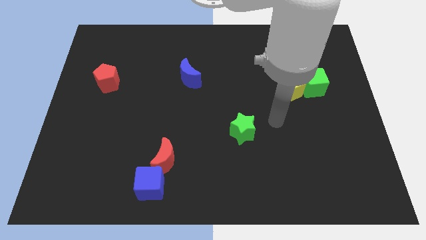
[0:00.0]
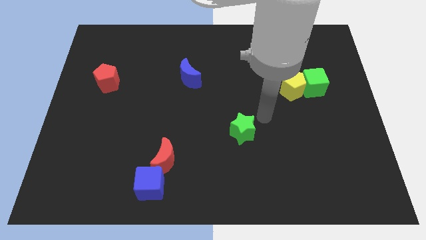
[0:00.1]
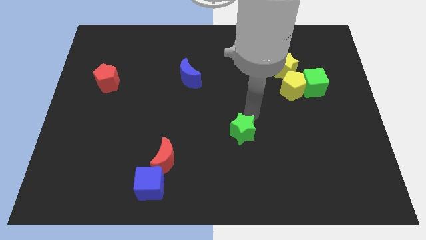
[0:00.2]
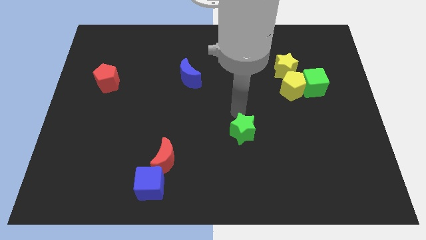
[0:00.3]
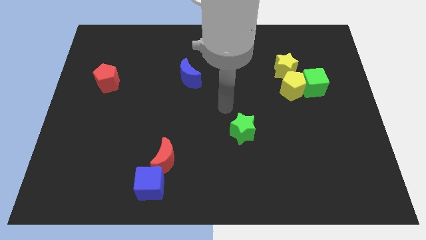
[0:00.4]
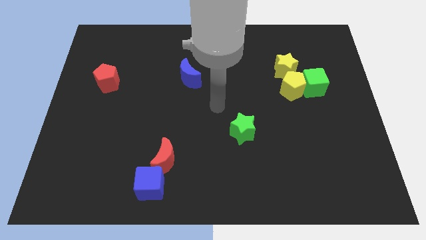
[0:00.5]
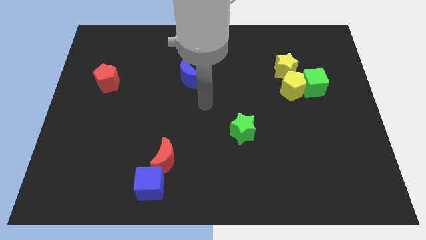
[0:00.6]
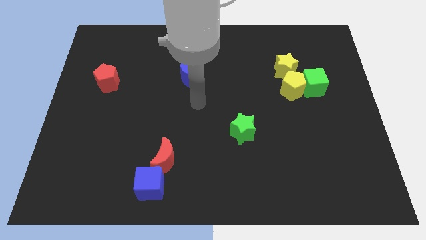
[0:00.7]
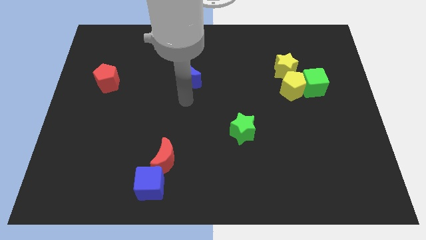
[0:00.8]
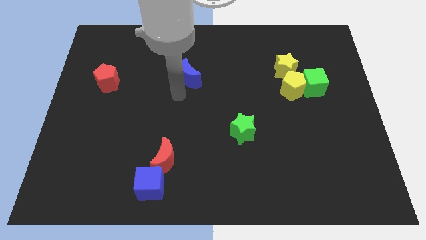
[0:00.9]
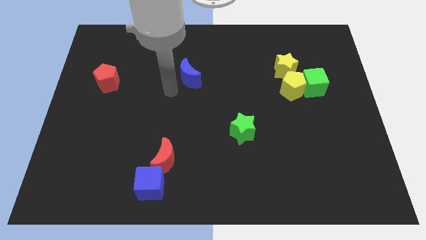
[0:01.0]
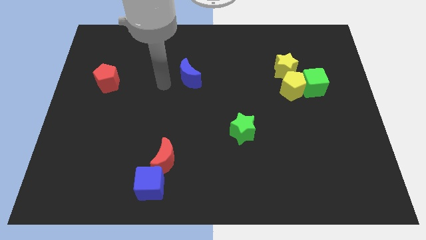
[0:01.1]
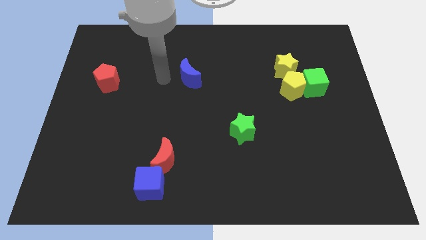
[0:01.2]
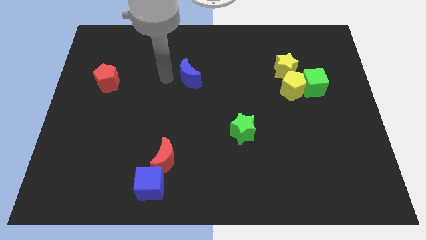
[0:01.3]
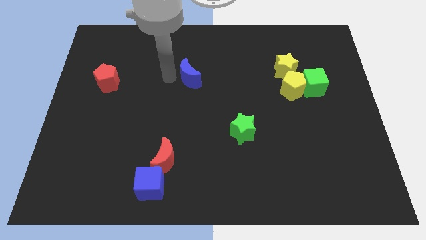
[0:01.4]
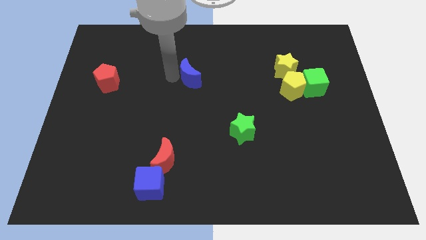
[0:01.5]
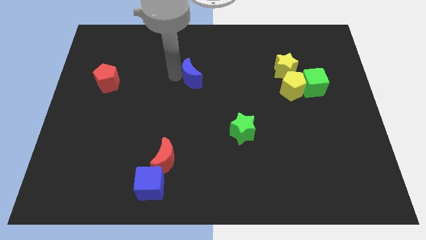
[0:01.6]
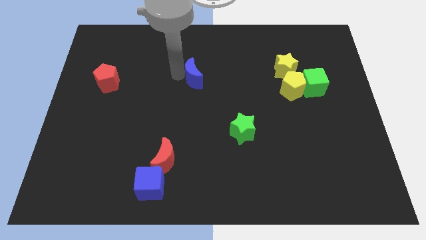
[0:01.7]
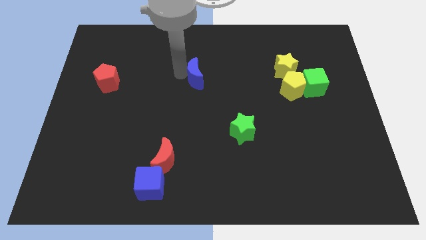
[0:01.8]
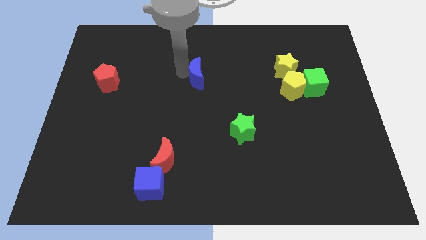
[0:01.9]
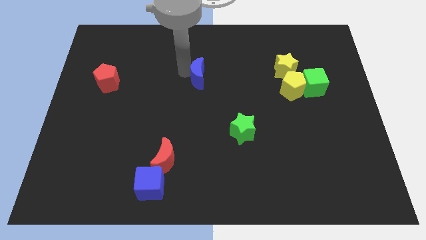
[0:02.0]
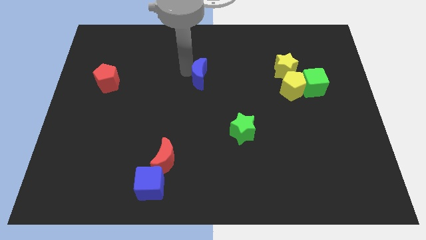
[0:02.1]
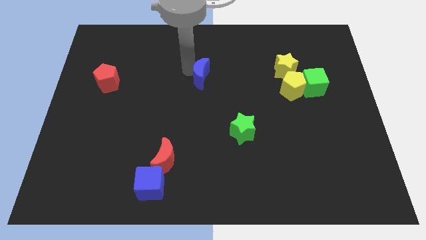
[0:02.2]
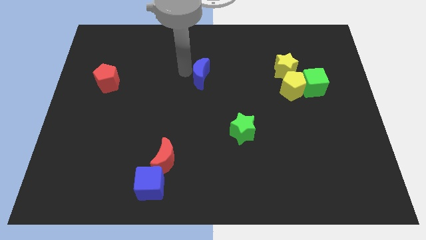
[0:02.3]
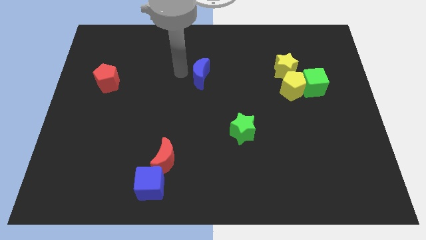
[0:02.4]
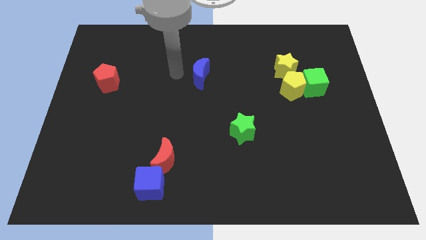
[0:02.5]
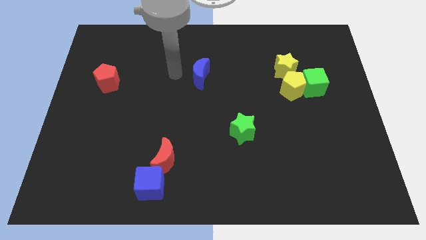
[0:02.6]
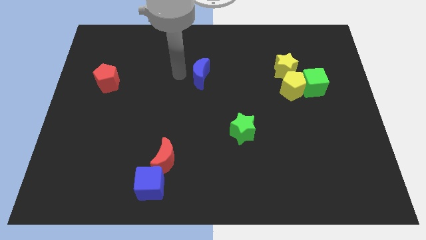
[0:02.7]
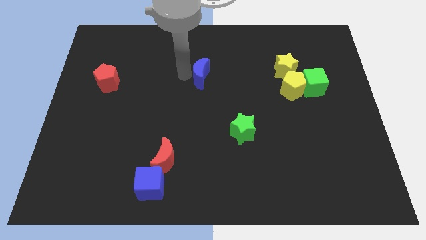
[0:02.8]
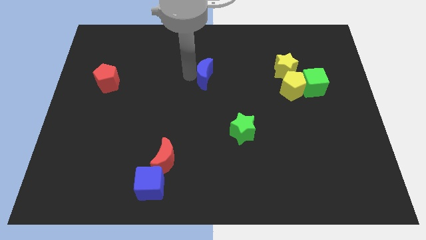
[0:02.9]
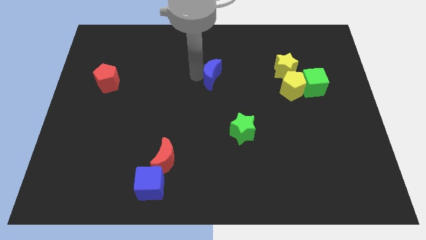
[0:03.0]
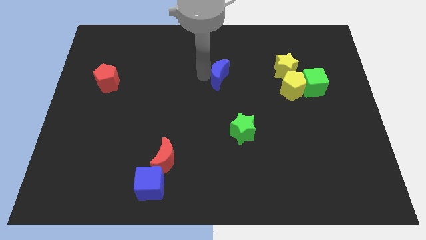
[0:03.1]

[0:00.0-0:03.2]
slide the blue moon to the right a little

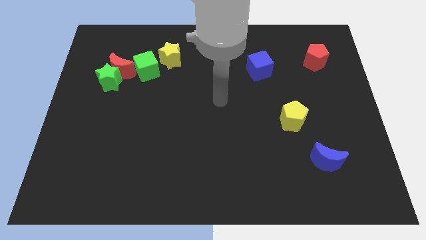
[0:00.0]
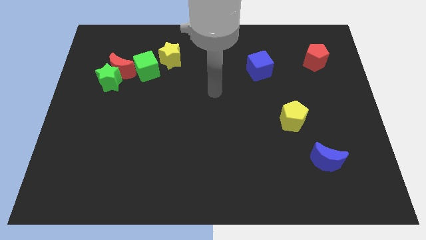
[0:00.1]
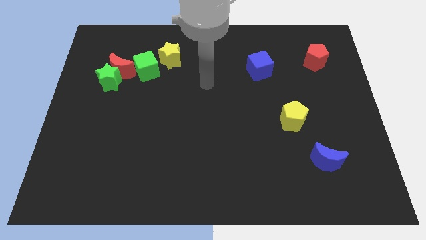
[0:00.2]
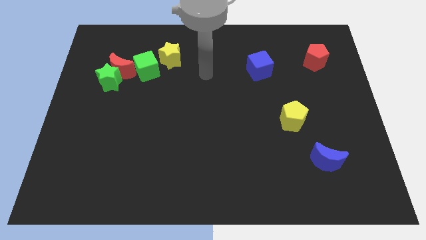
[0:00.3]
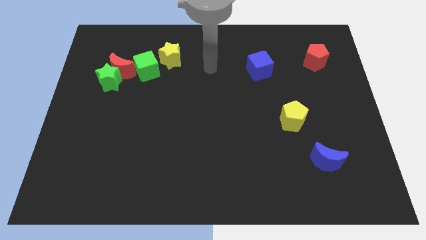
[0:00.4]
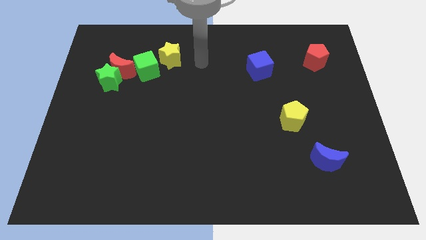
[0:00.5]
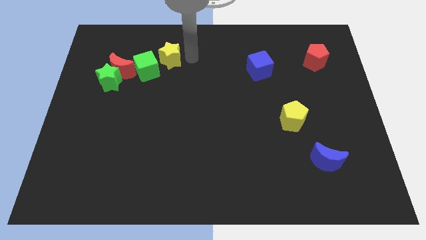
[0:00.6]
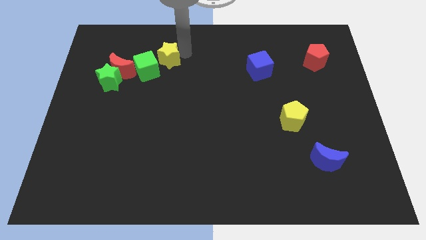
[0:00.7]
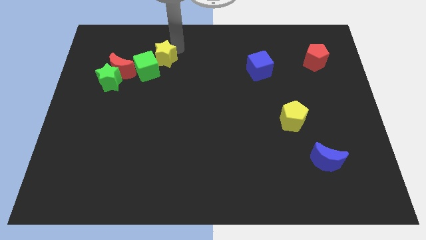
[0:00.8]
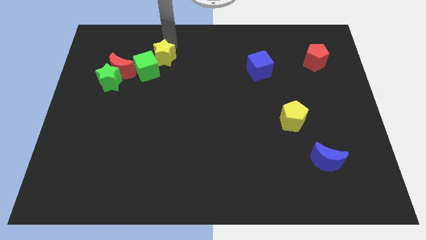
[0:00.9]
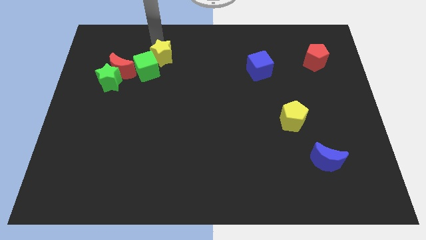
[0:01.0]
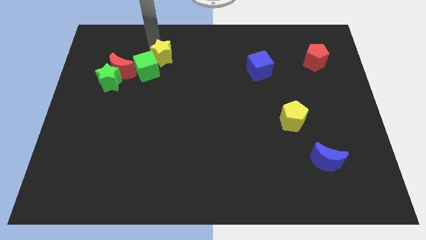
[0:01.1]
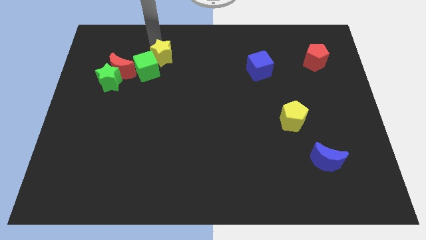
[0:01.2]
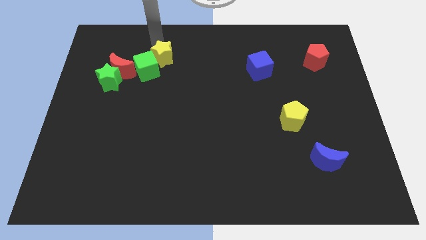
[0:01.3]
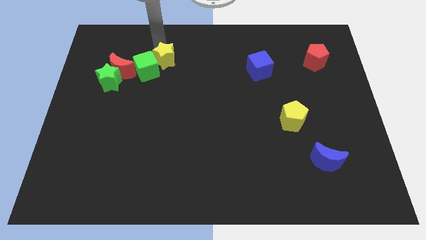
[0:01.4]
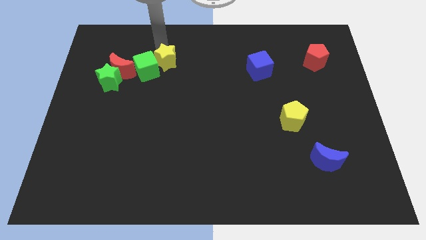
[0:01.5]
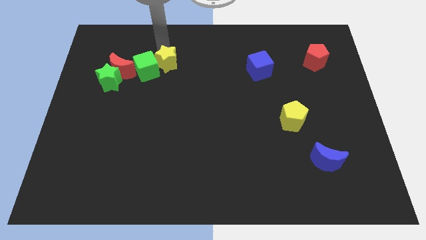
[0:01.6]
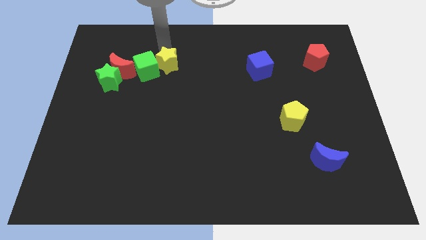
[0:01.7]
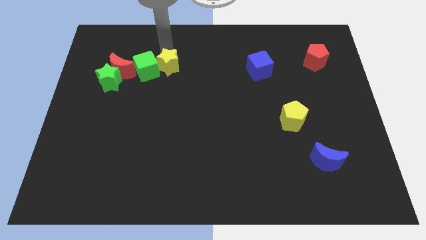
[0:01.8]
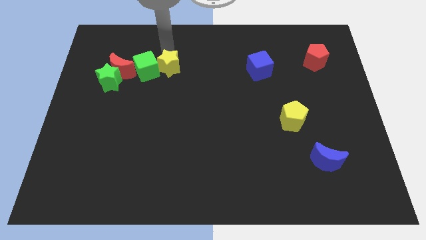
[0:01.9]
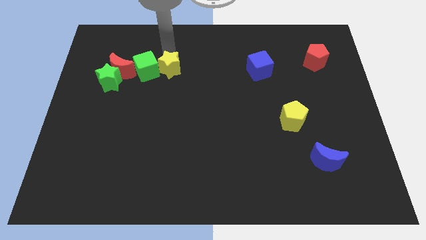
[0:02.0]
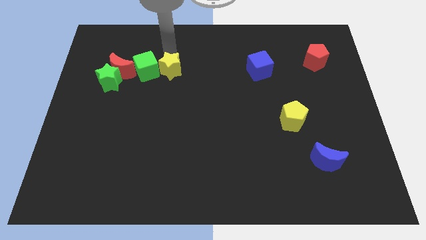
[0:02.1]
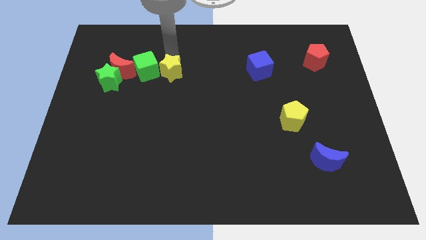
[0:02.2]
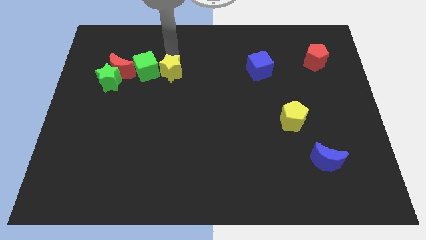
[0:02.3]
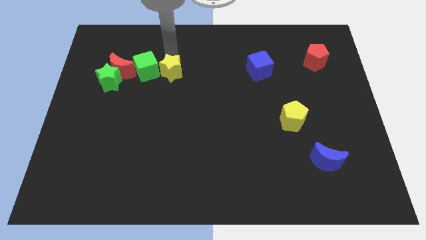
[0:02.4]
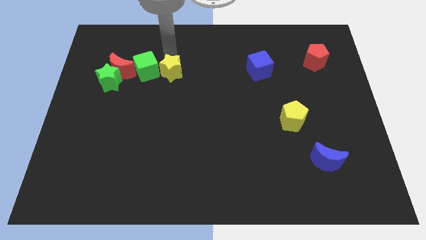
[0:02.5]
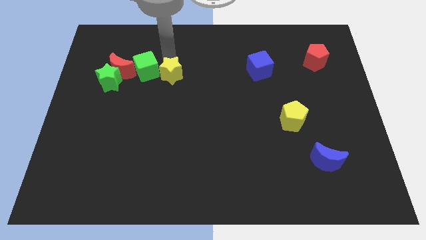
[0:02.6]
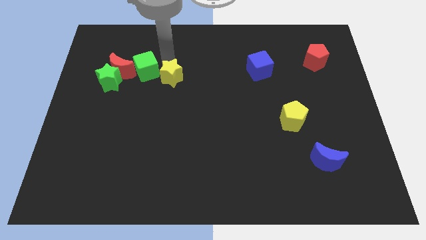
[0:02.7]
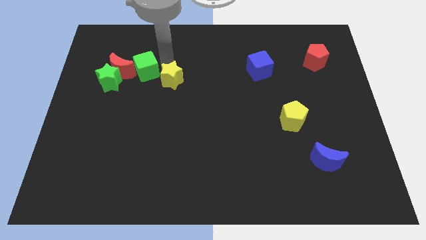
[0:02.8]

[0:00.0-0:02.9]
push the yellow star a bit down

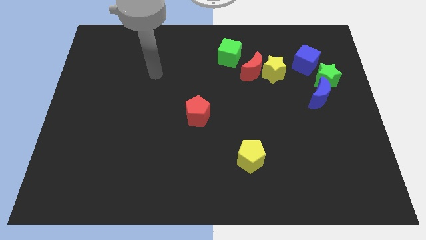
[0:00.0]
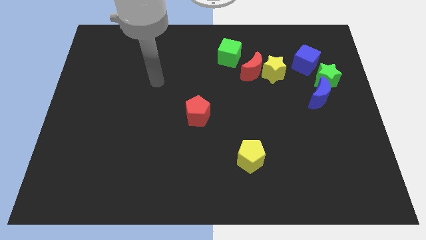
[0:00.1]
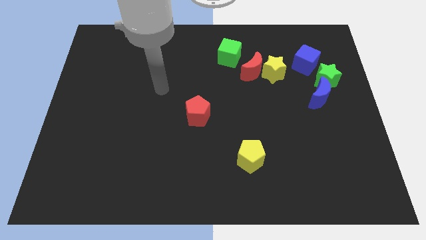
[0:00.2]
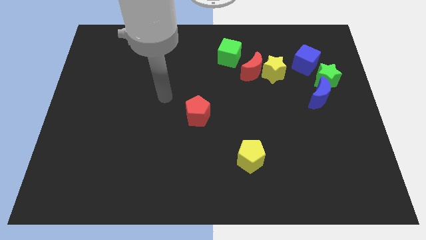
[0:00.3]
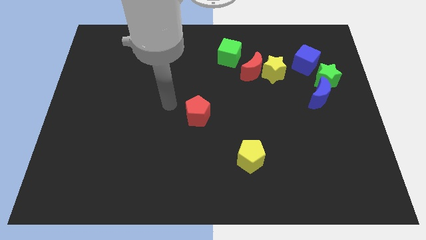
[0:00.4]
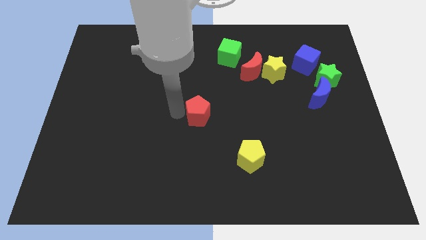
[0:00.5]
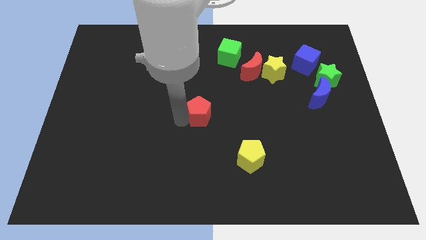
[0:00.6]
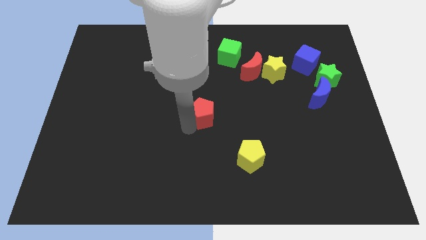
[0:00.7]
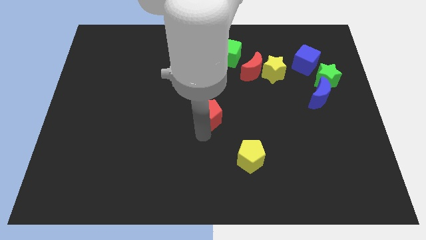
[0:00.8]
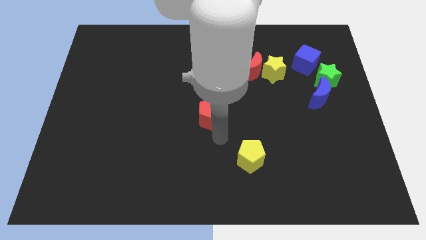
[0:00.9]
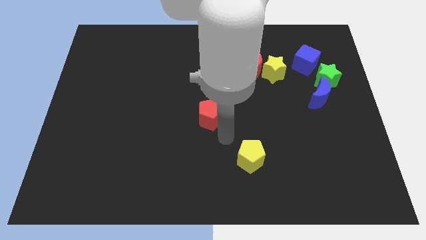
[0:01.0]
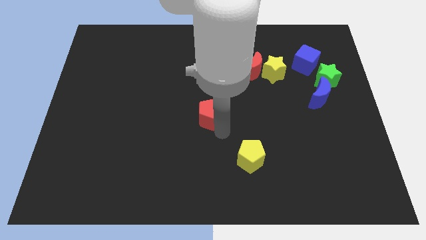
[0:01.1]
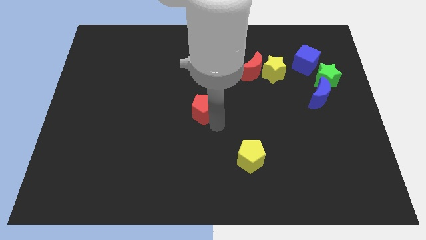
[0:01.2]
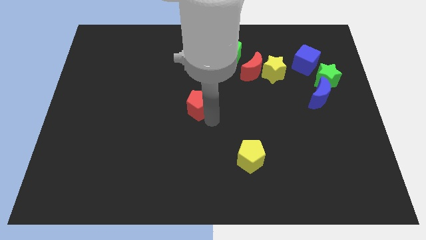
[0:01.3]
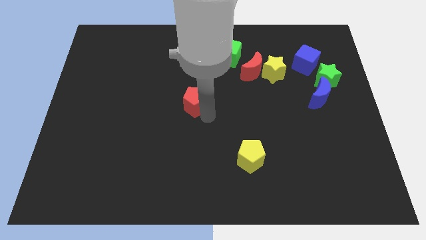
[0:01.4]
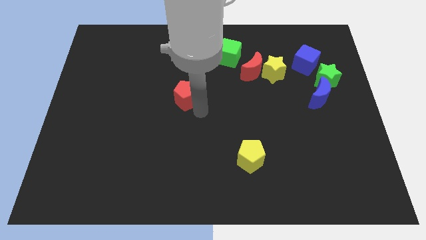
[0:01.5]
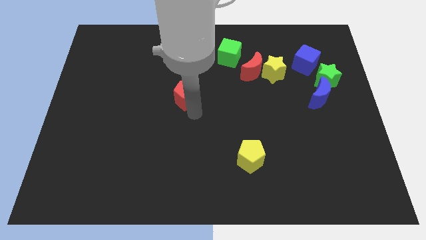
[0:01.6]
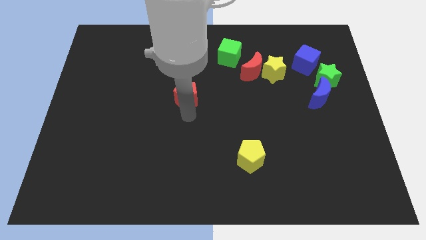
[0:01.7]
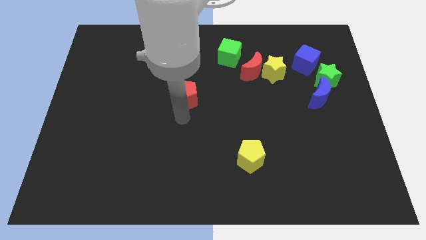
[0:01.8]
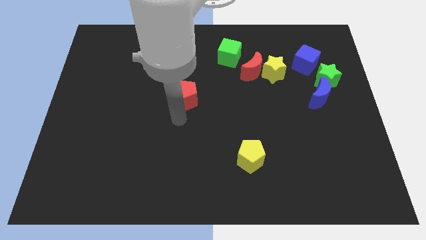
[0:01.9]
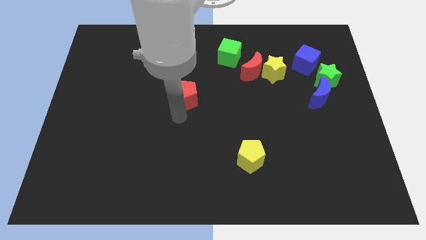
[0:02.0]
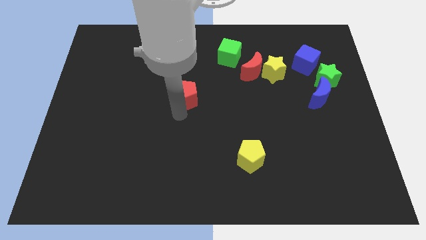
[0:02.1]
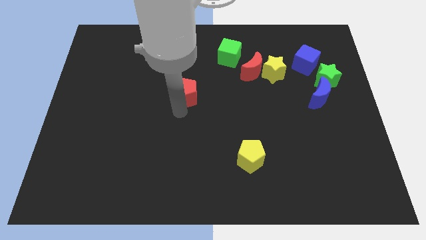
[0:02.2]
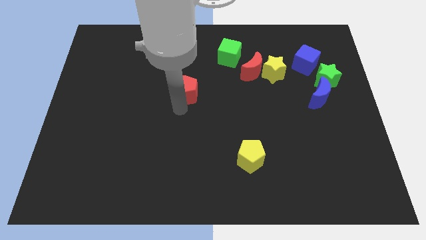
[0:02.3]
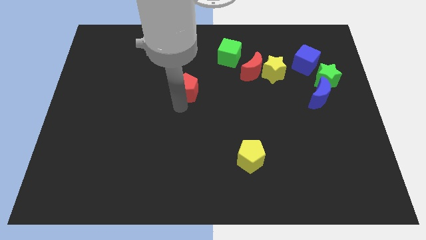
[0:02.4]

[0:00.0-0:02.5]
slide the red pentagon upwards somewhat
